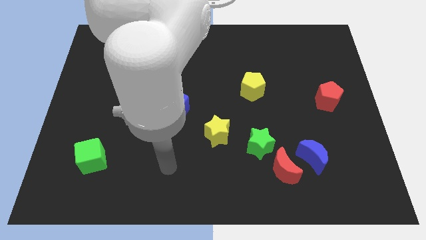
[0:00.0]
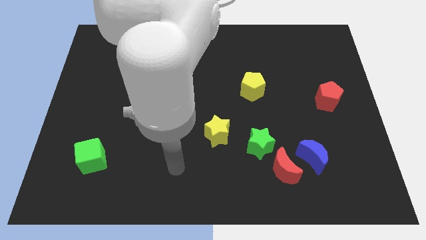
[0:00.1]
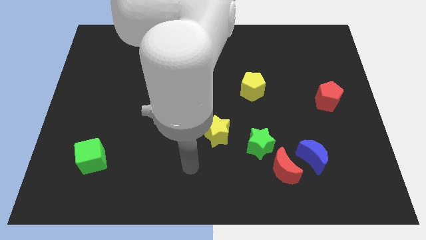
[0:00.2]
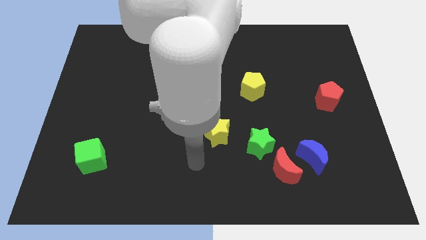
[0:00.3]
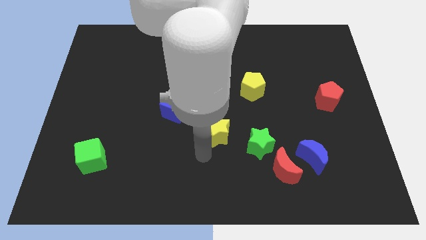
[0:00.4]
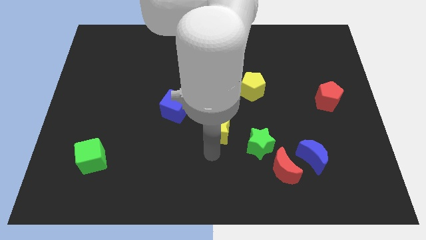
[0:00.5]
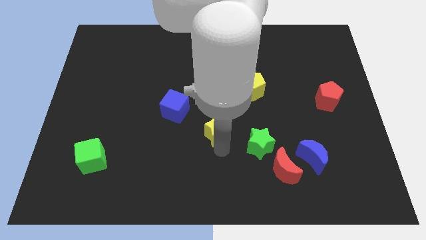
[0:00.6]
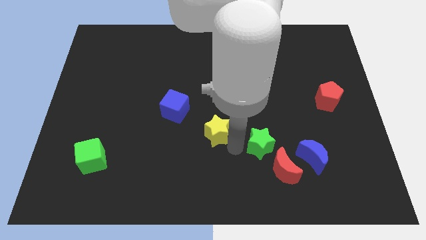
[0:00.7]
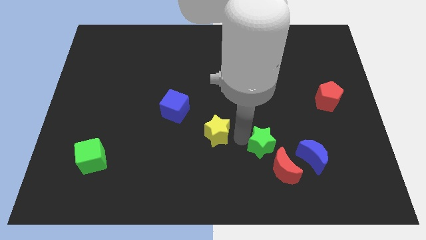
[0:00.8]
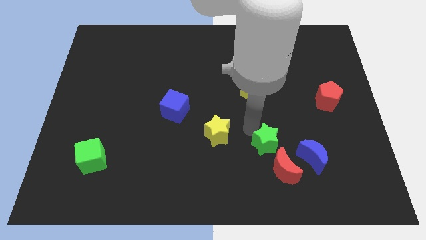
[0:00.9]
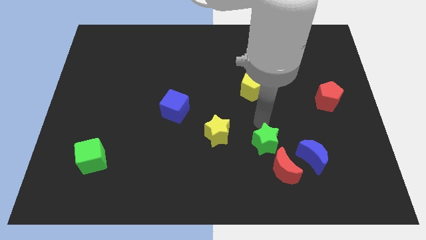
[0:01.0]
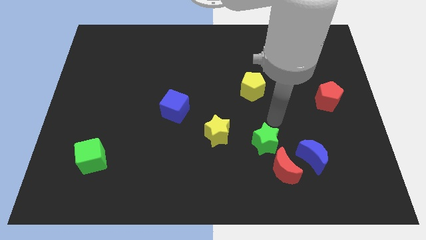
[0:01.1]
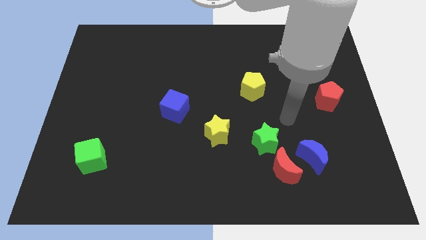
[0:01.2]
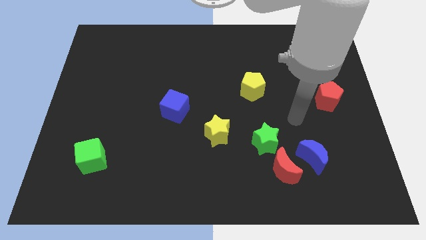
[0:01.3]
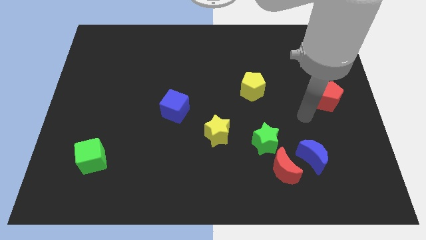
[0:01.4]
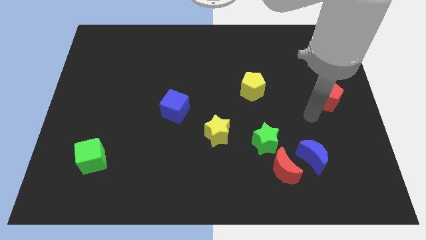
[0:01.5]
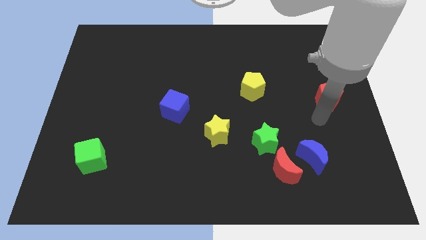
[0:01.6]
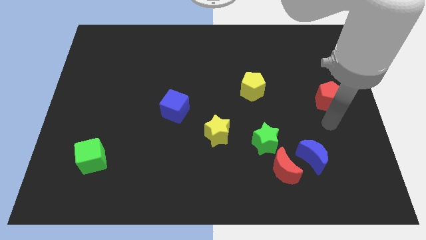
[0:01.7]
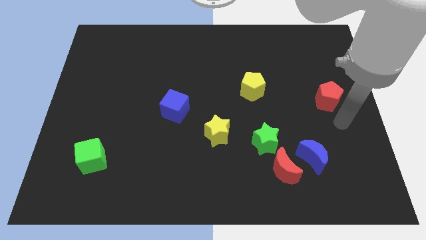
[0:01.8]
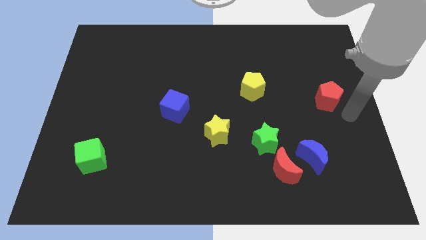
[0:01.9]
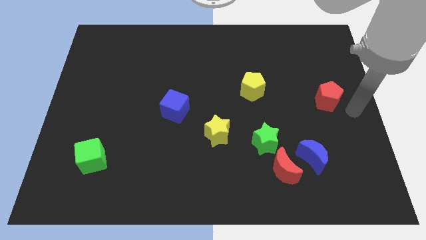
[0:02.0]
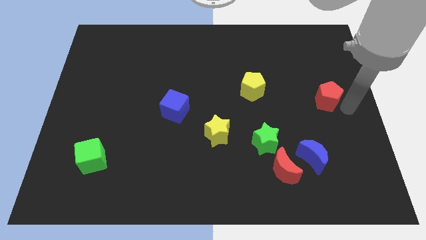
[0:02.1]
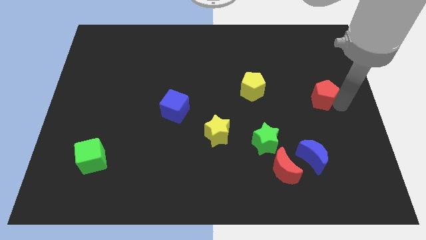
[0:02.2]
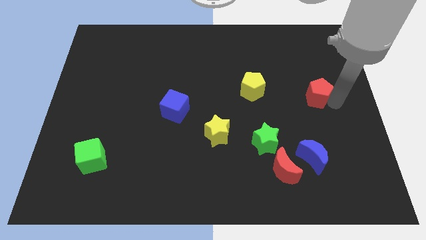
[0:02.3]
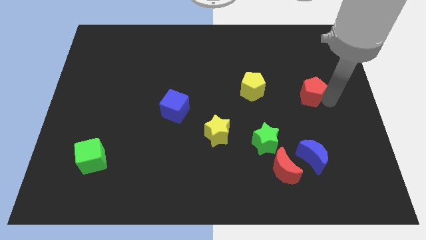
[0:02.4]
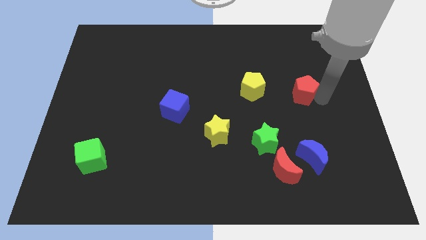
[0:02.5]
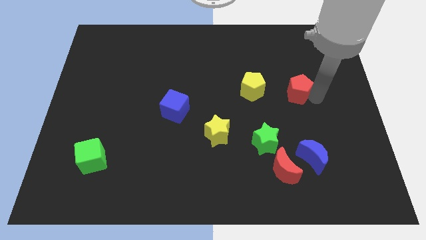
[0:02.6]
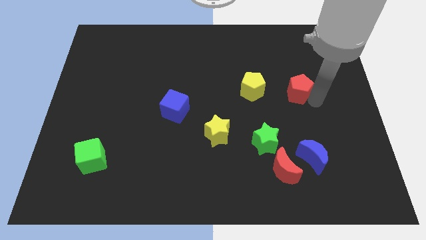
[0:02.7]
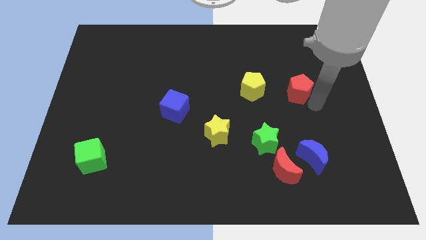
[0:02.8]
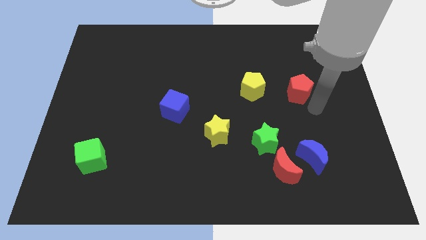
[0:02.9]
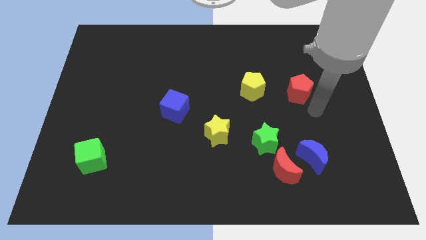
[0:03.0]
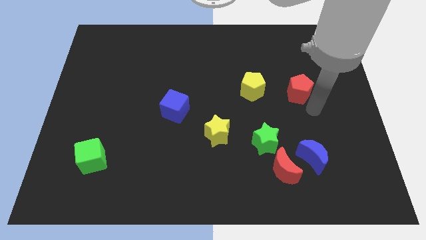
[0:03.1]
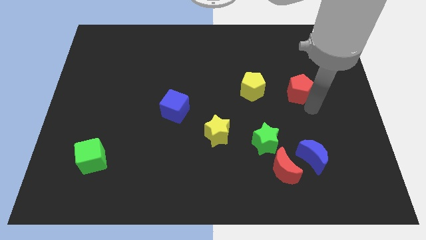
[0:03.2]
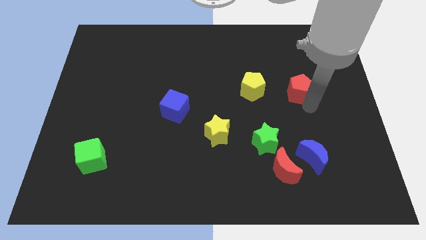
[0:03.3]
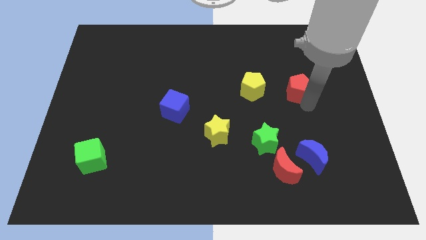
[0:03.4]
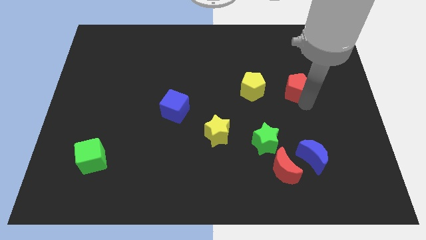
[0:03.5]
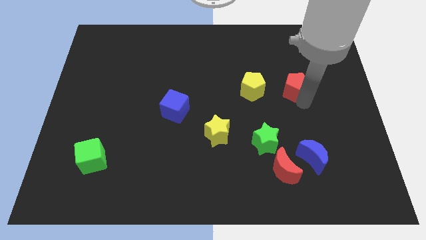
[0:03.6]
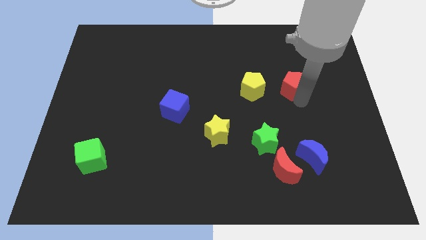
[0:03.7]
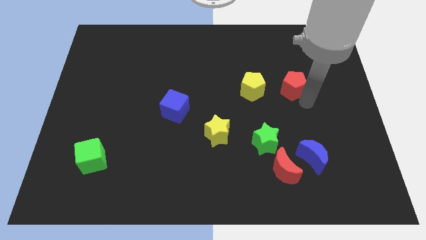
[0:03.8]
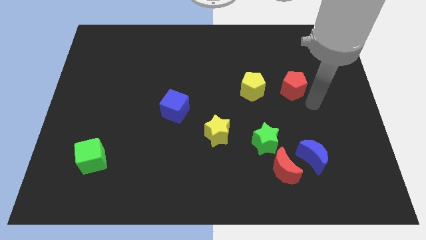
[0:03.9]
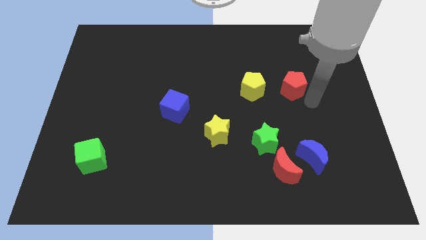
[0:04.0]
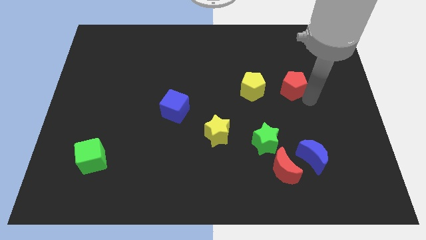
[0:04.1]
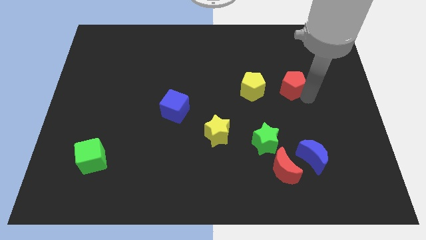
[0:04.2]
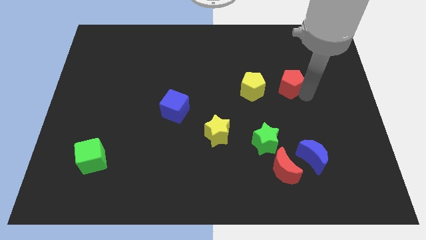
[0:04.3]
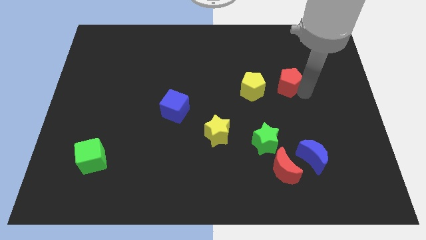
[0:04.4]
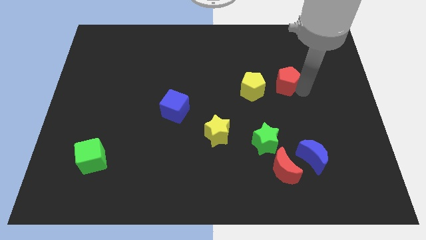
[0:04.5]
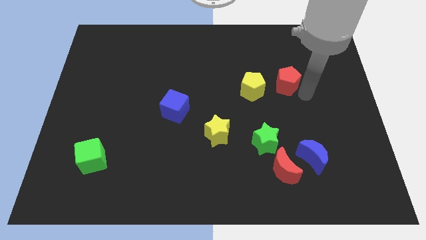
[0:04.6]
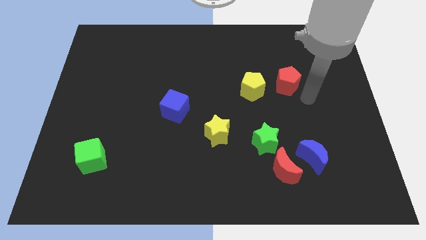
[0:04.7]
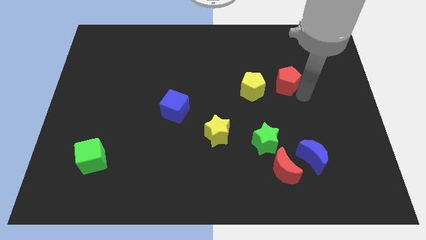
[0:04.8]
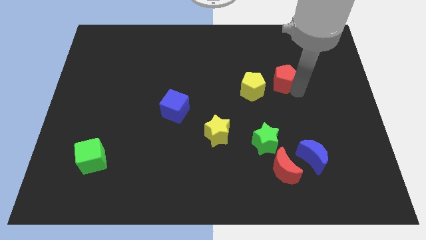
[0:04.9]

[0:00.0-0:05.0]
move the red pentagon to the top right of the yellow pentagon

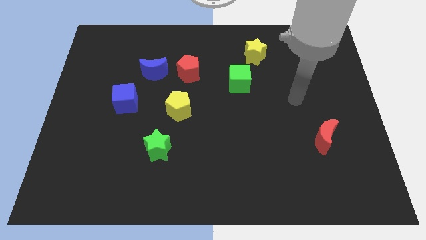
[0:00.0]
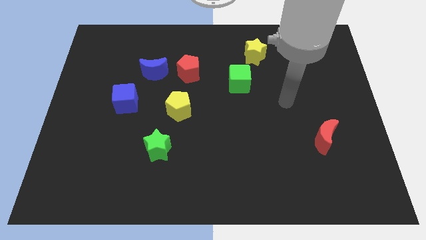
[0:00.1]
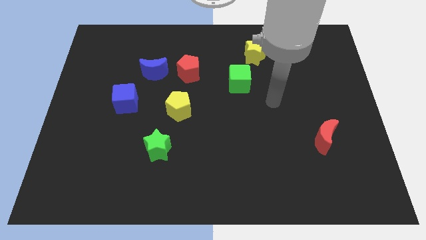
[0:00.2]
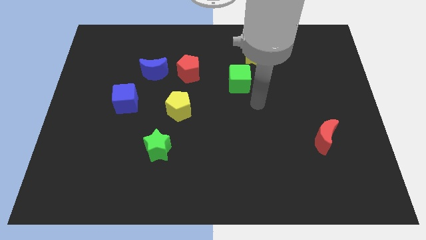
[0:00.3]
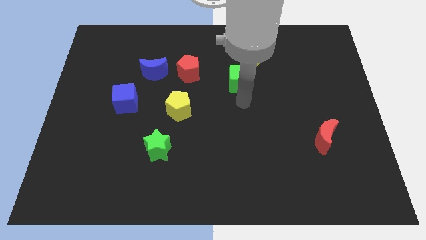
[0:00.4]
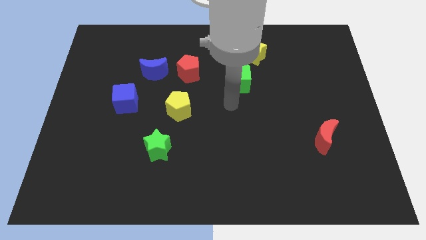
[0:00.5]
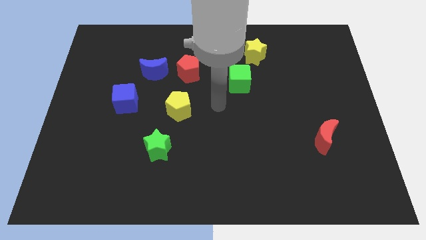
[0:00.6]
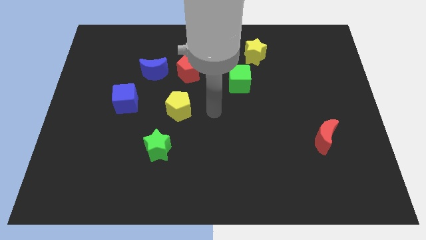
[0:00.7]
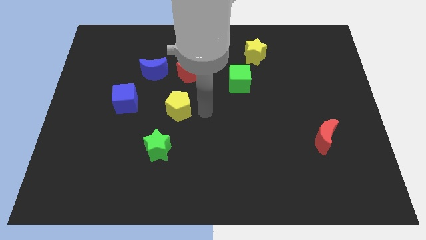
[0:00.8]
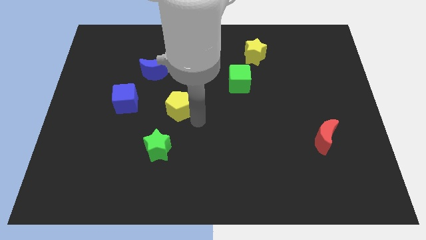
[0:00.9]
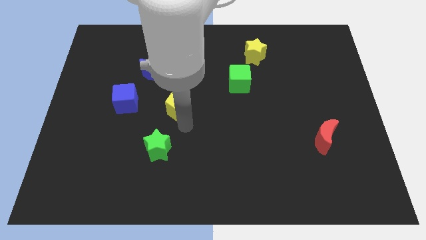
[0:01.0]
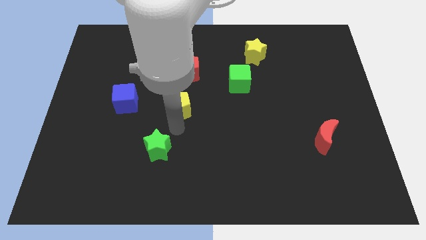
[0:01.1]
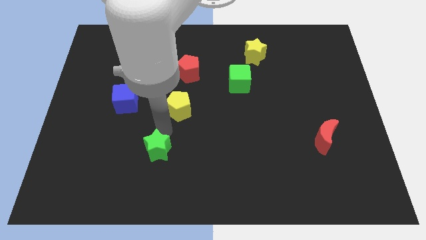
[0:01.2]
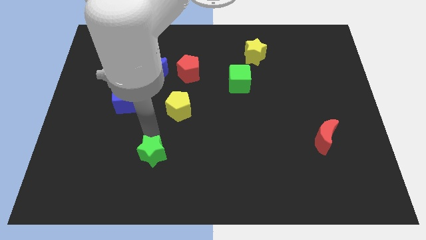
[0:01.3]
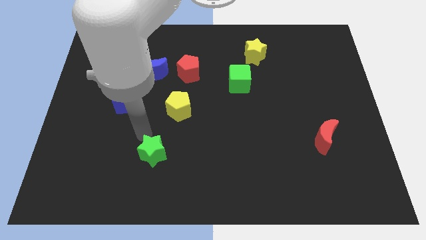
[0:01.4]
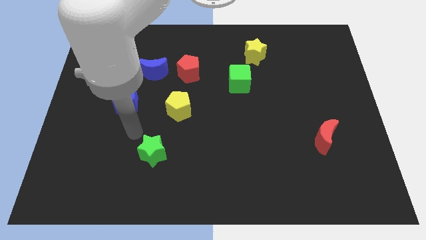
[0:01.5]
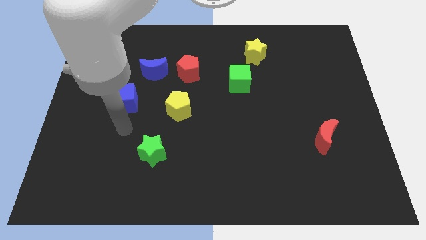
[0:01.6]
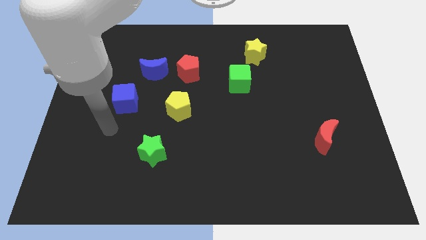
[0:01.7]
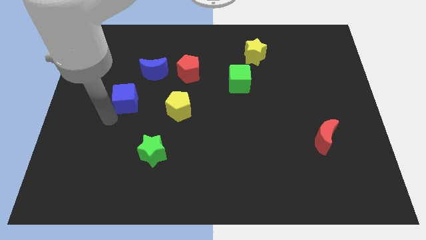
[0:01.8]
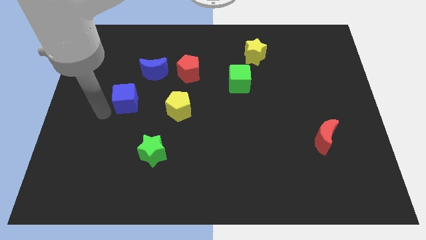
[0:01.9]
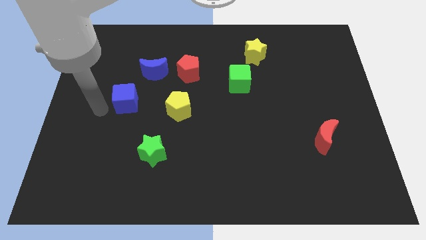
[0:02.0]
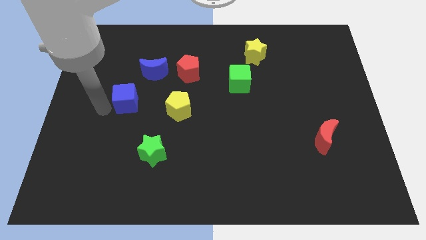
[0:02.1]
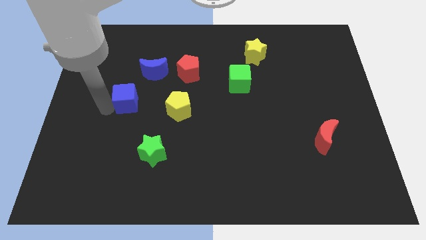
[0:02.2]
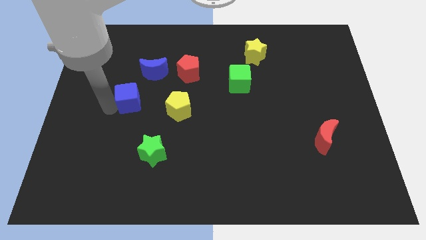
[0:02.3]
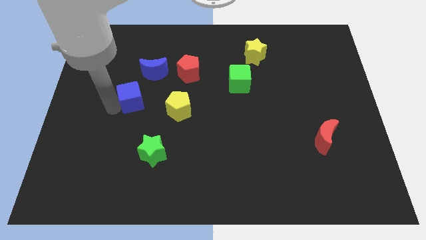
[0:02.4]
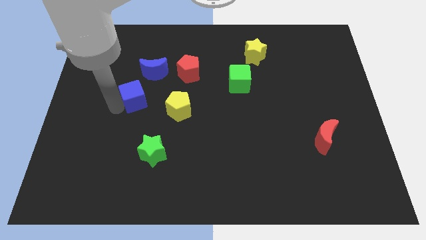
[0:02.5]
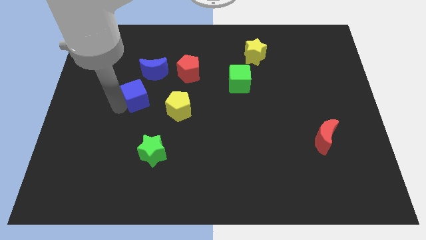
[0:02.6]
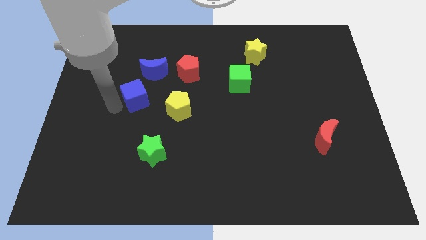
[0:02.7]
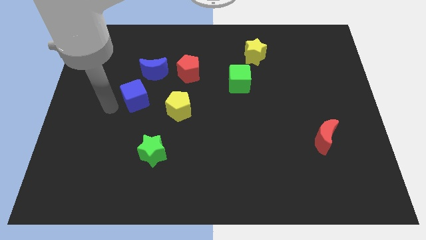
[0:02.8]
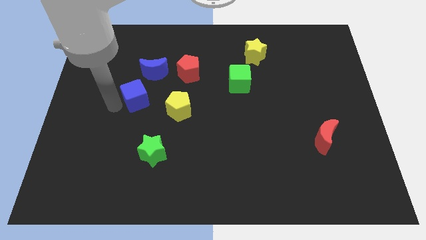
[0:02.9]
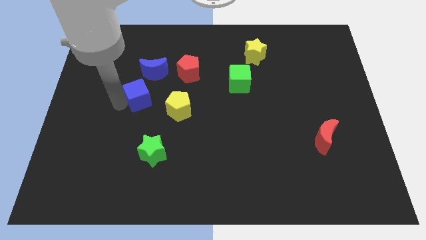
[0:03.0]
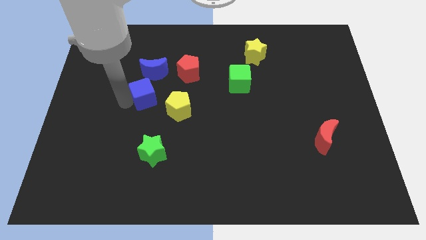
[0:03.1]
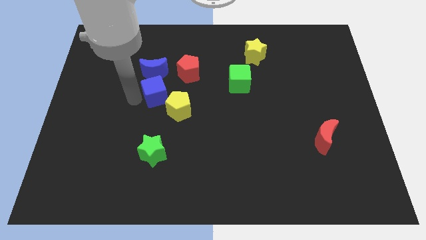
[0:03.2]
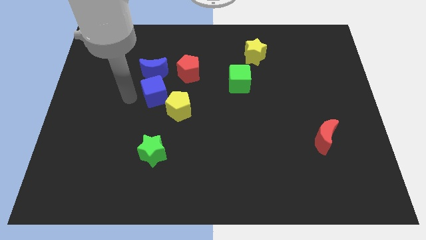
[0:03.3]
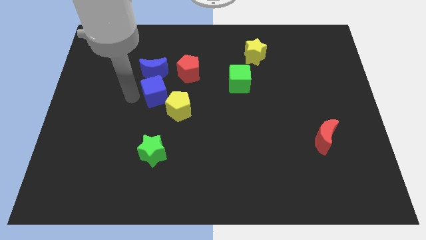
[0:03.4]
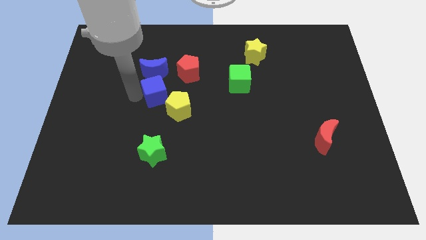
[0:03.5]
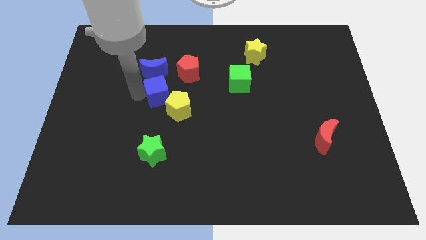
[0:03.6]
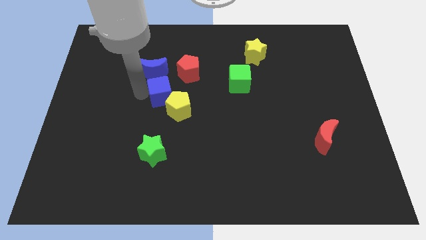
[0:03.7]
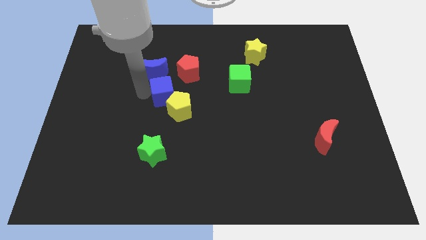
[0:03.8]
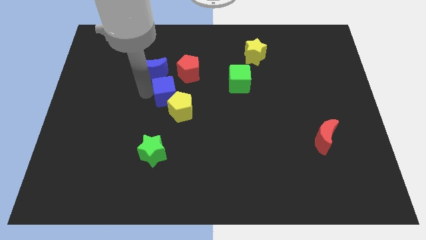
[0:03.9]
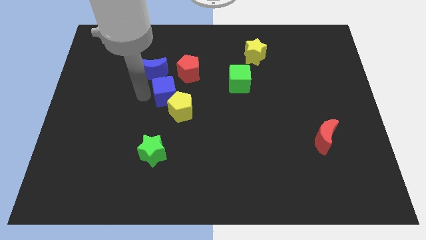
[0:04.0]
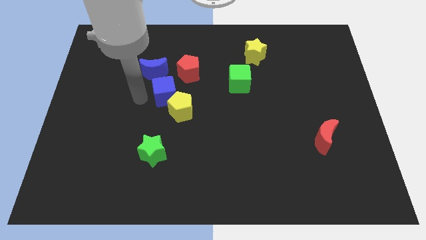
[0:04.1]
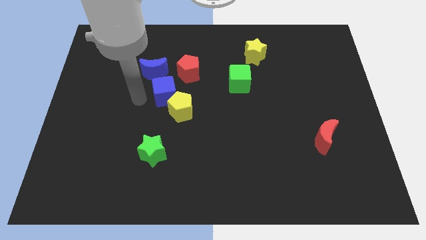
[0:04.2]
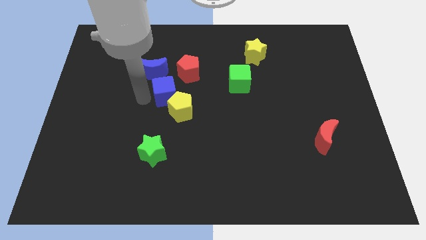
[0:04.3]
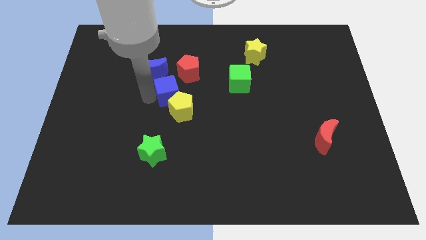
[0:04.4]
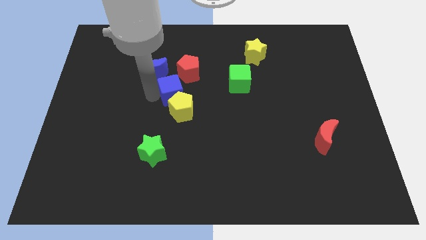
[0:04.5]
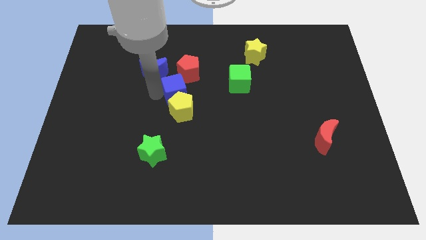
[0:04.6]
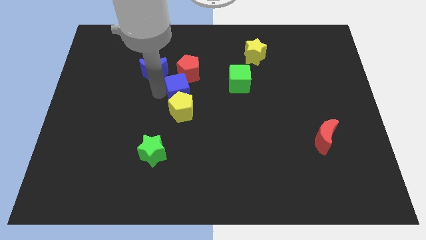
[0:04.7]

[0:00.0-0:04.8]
push the blue cube to the top right side of the yellow pentagon
